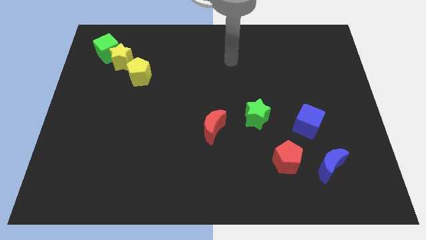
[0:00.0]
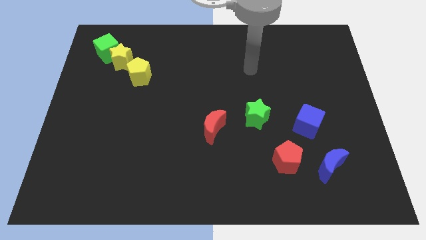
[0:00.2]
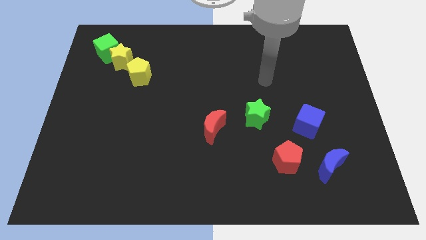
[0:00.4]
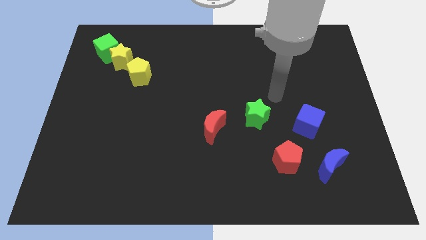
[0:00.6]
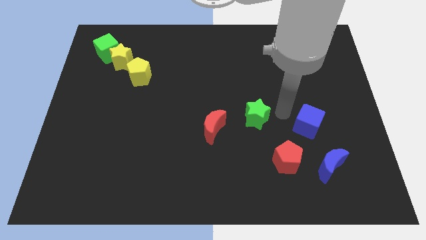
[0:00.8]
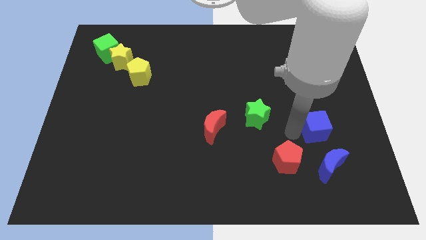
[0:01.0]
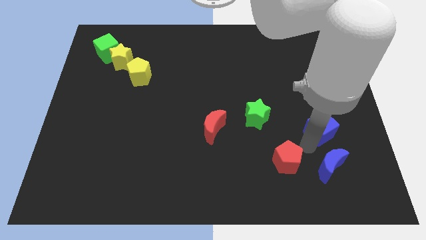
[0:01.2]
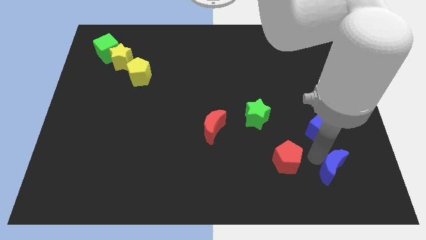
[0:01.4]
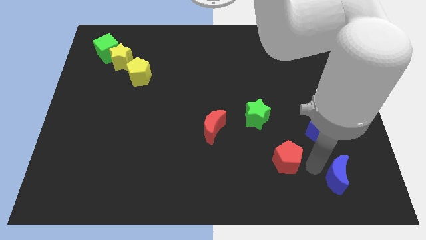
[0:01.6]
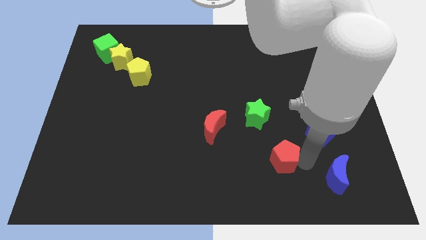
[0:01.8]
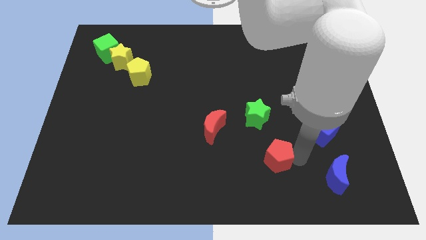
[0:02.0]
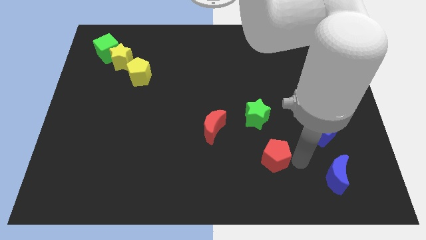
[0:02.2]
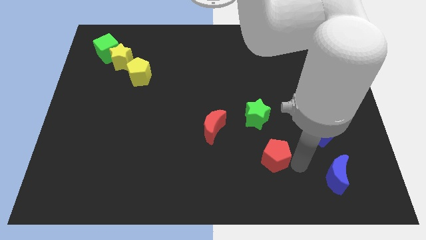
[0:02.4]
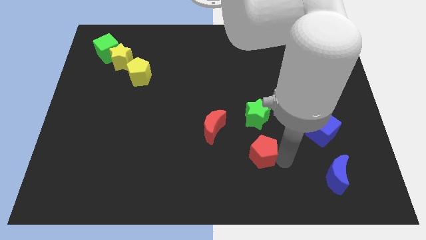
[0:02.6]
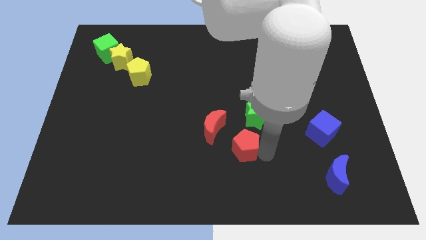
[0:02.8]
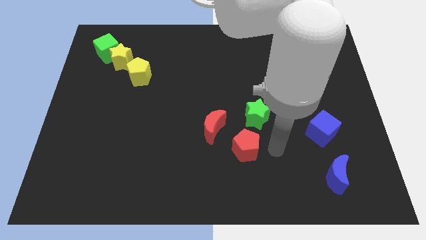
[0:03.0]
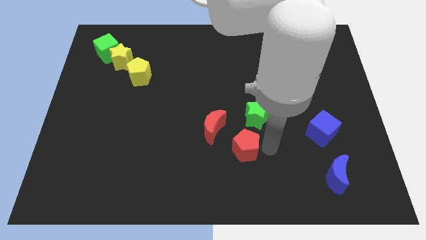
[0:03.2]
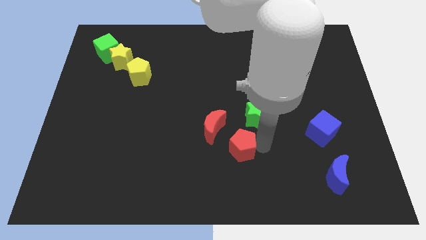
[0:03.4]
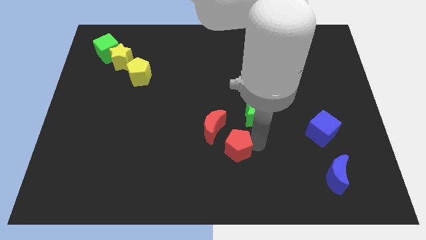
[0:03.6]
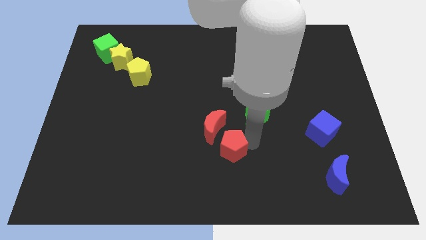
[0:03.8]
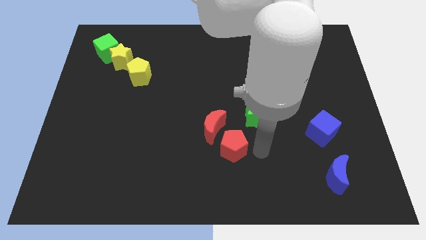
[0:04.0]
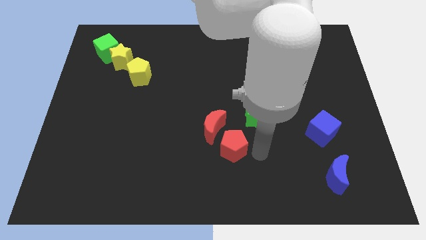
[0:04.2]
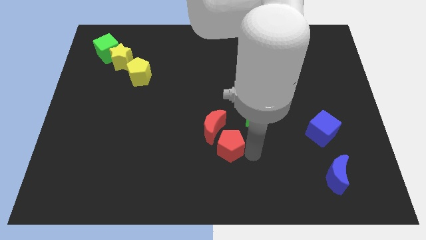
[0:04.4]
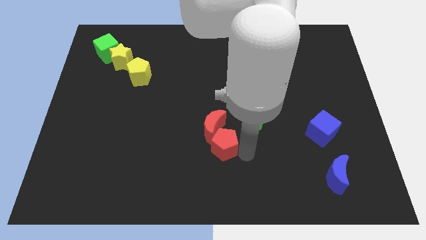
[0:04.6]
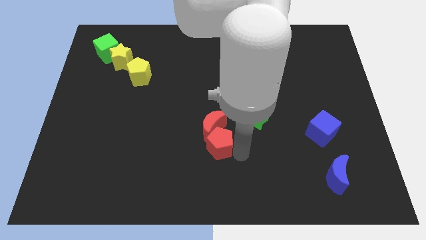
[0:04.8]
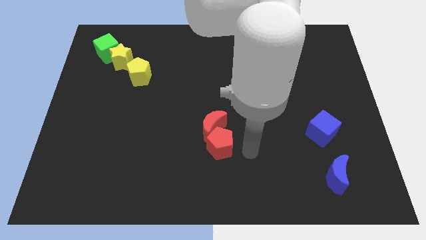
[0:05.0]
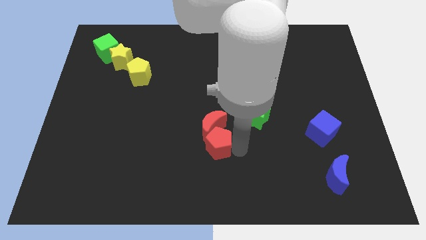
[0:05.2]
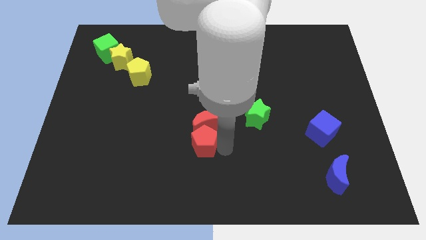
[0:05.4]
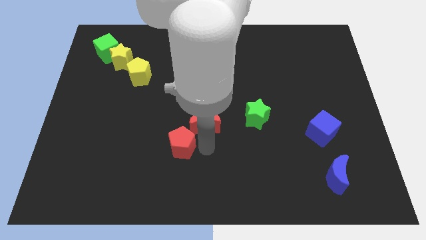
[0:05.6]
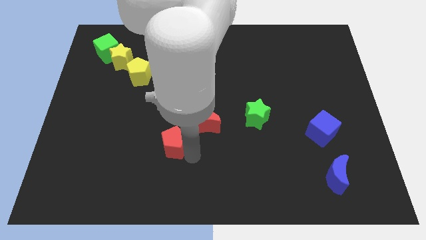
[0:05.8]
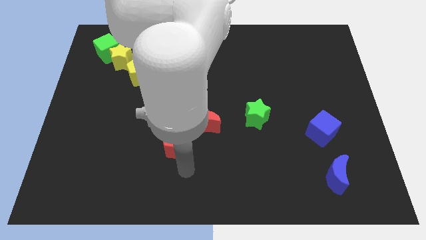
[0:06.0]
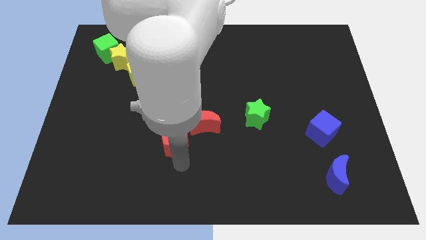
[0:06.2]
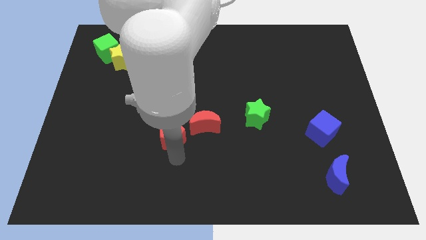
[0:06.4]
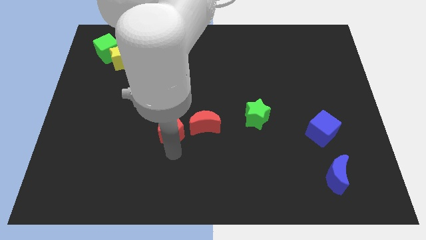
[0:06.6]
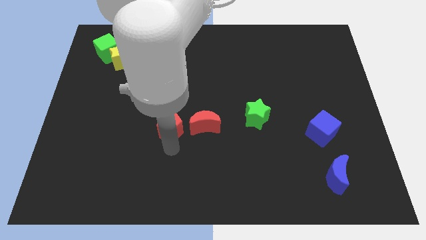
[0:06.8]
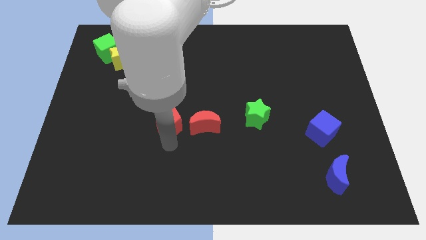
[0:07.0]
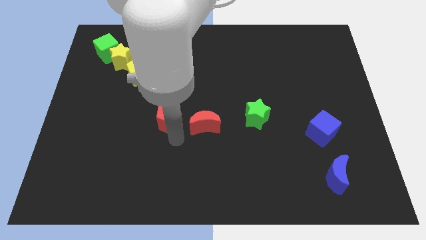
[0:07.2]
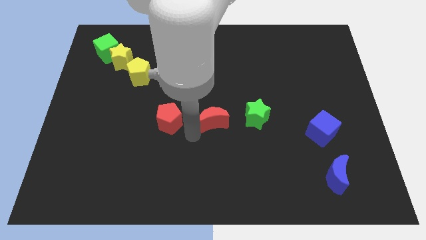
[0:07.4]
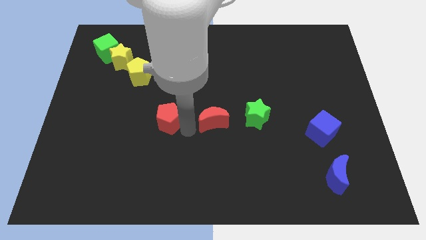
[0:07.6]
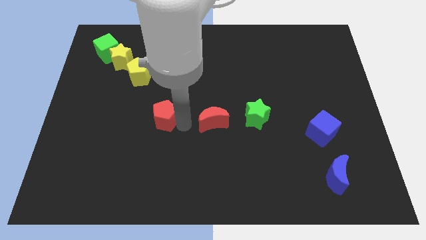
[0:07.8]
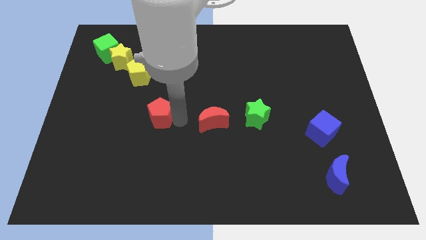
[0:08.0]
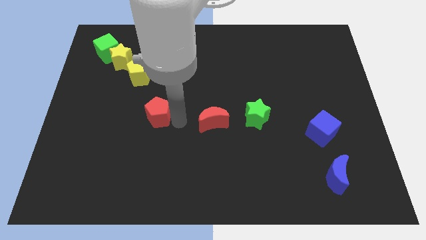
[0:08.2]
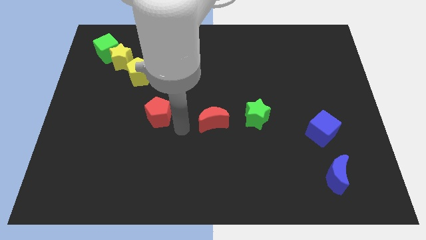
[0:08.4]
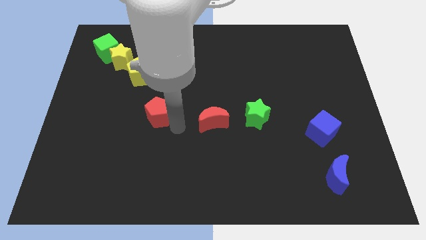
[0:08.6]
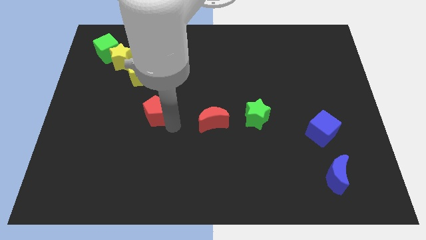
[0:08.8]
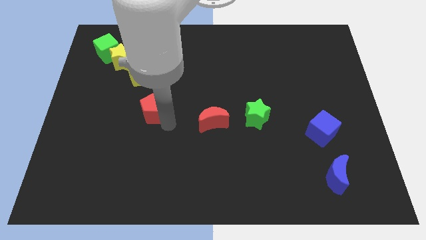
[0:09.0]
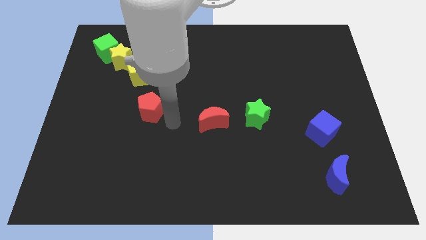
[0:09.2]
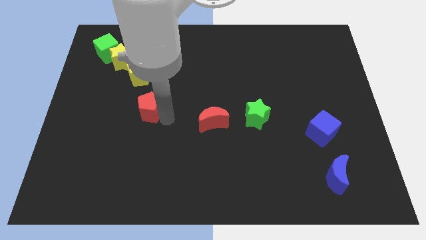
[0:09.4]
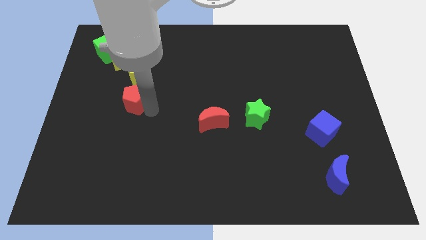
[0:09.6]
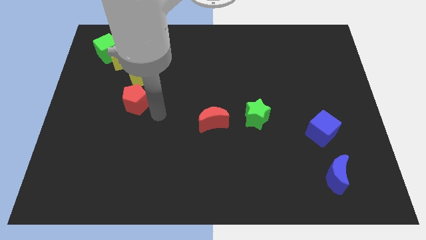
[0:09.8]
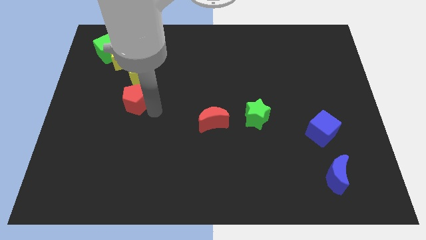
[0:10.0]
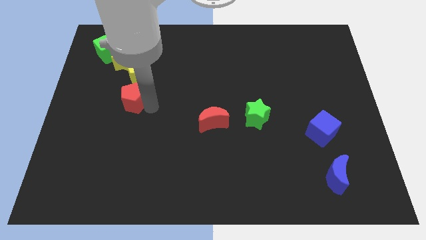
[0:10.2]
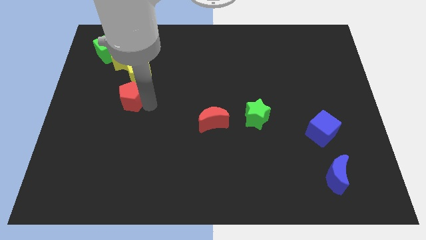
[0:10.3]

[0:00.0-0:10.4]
push the red pentagon to the bottom left of the yellow pentagon

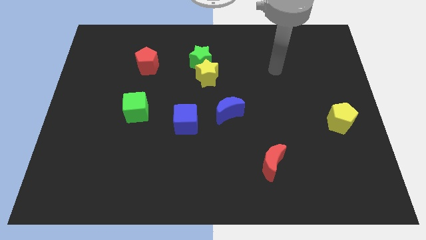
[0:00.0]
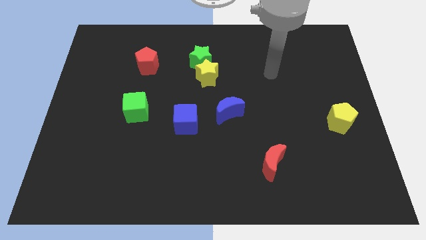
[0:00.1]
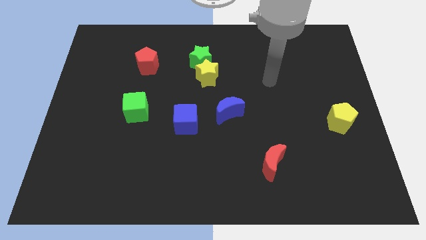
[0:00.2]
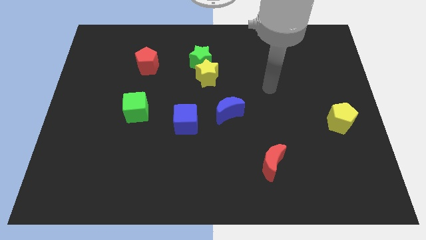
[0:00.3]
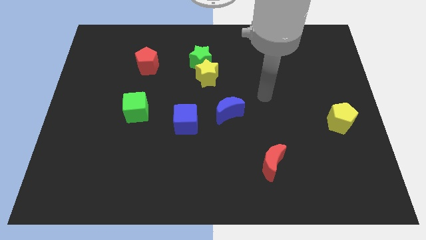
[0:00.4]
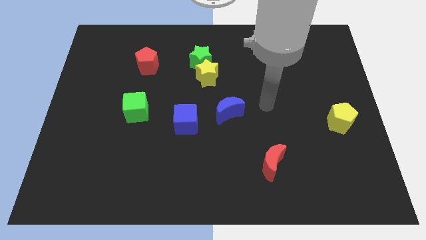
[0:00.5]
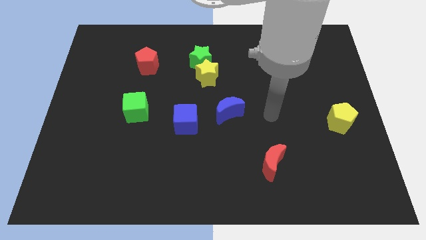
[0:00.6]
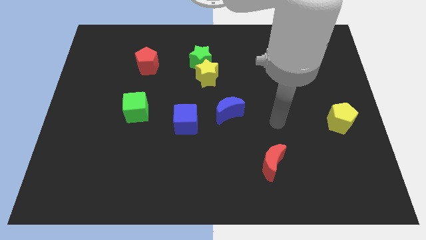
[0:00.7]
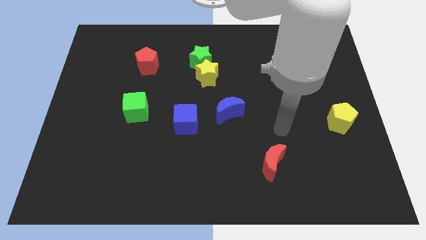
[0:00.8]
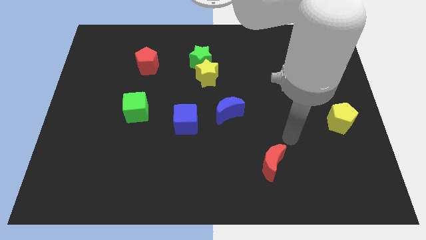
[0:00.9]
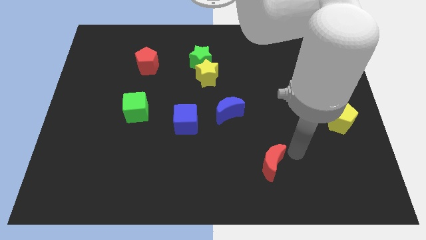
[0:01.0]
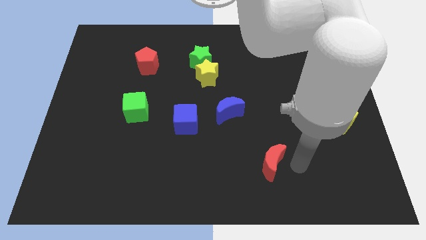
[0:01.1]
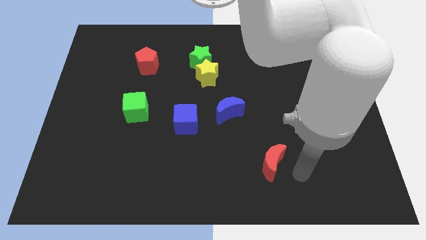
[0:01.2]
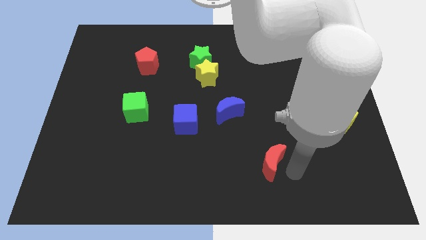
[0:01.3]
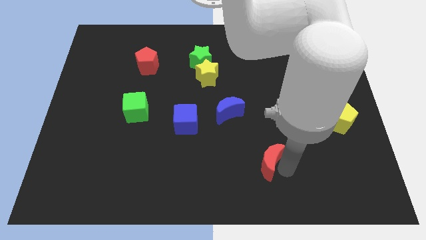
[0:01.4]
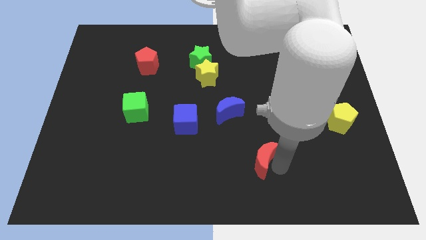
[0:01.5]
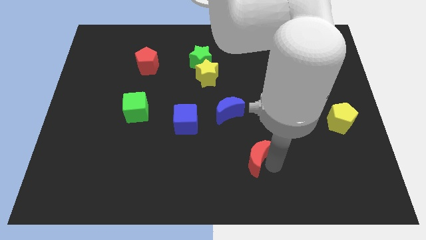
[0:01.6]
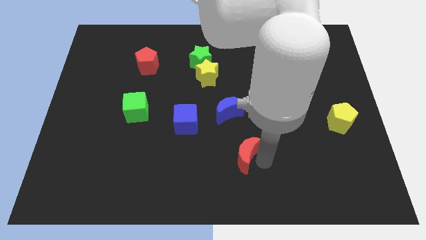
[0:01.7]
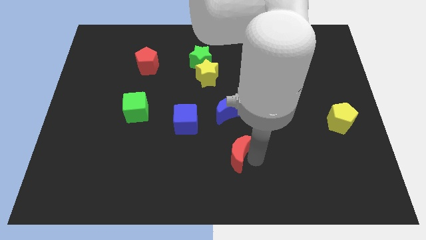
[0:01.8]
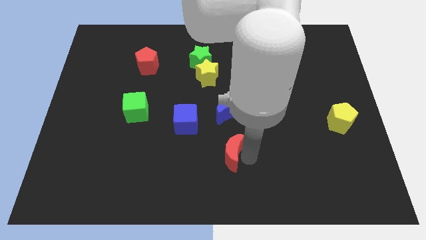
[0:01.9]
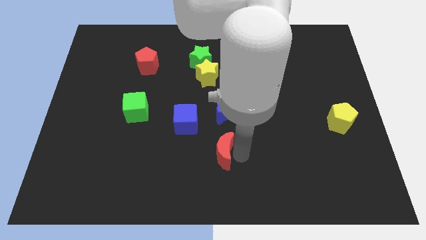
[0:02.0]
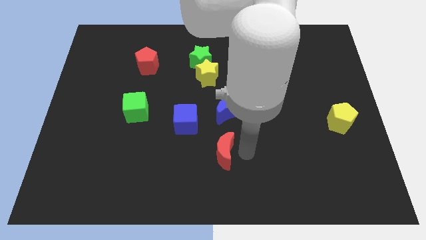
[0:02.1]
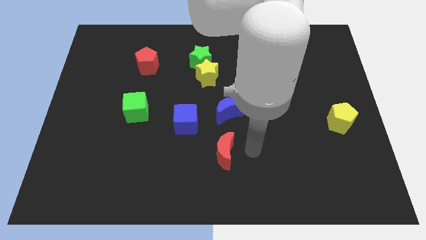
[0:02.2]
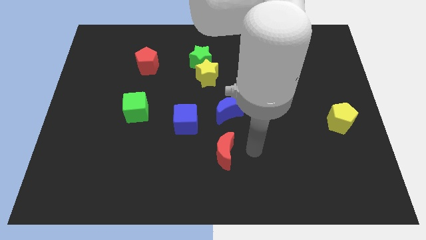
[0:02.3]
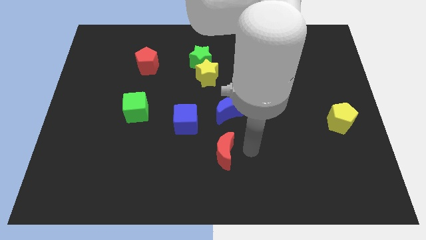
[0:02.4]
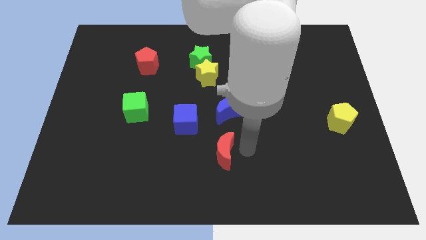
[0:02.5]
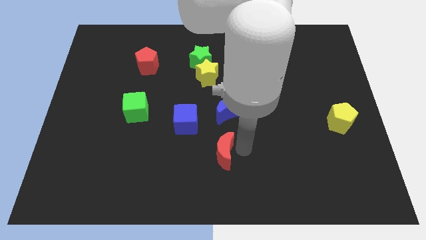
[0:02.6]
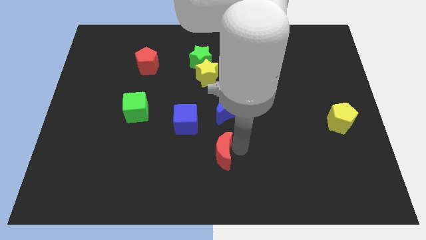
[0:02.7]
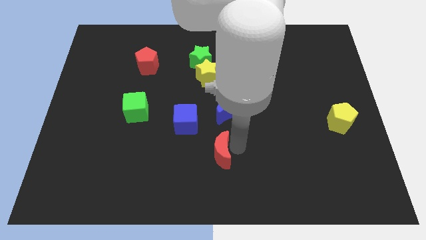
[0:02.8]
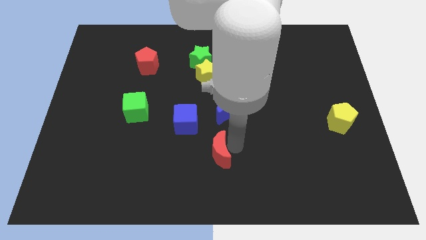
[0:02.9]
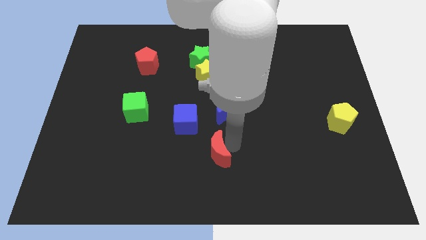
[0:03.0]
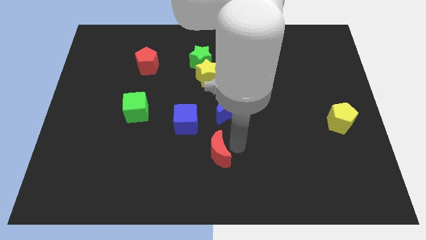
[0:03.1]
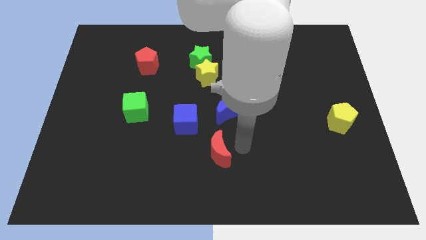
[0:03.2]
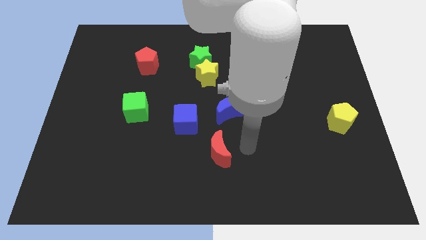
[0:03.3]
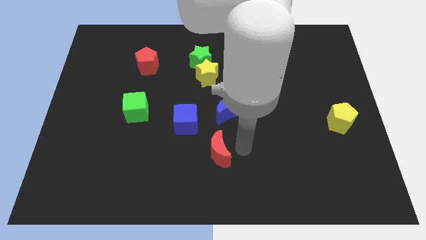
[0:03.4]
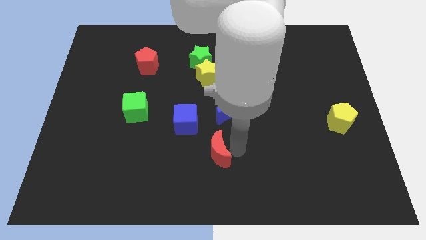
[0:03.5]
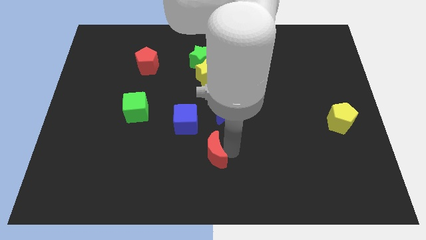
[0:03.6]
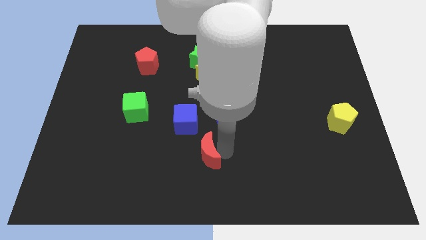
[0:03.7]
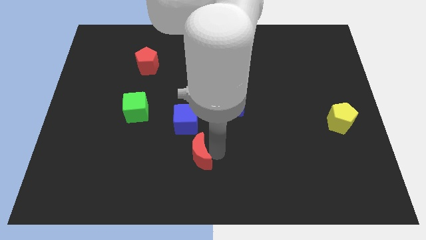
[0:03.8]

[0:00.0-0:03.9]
push the red moon to the bottom side of the blue cube
